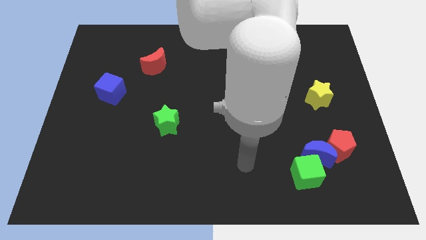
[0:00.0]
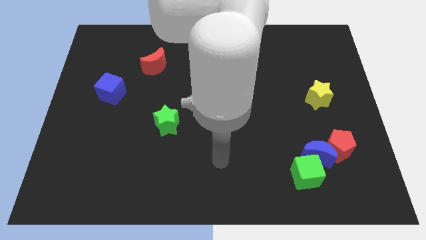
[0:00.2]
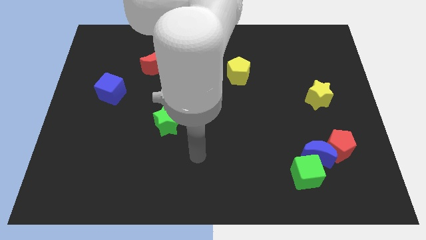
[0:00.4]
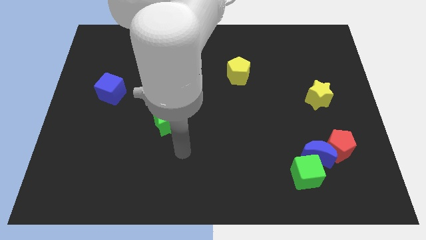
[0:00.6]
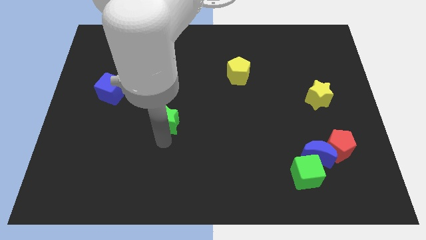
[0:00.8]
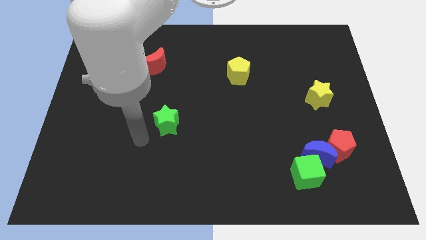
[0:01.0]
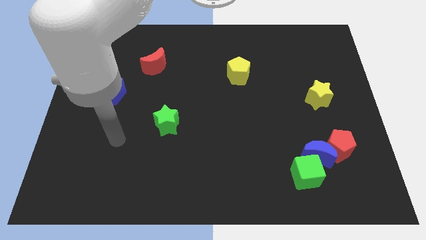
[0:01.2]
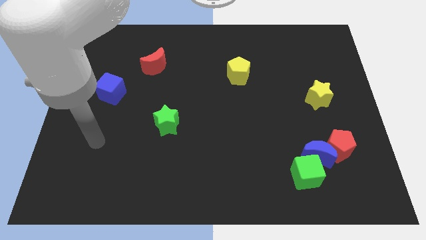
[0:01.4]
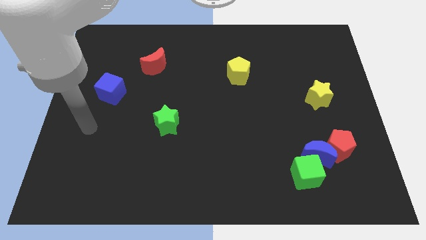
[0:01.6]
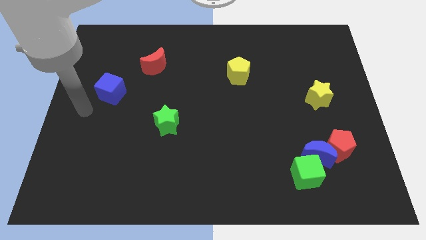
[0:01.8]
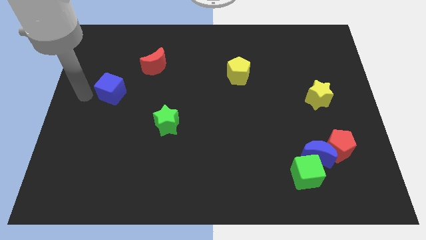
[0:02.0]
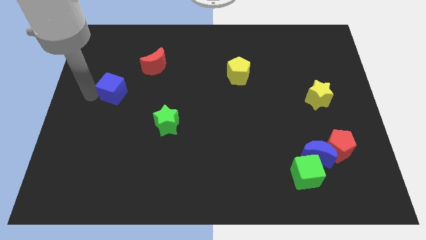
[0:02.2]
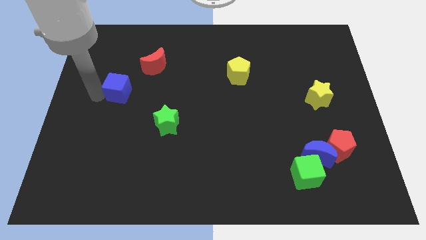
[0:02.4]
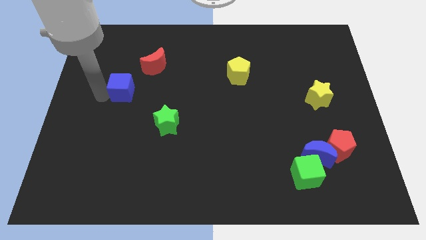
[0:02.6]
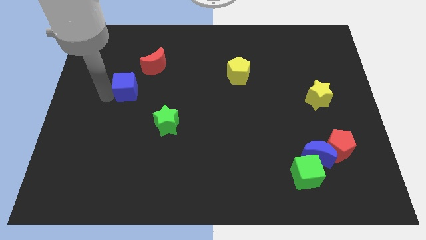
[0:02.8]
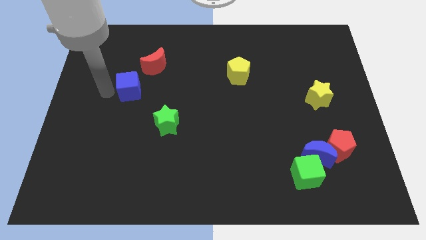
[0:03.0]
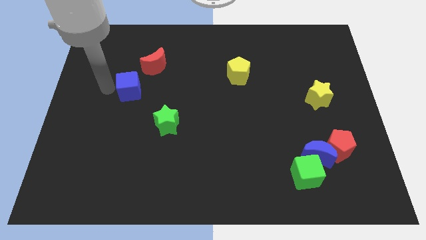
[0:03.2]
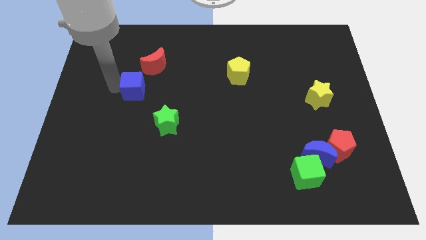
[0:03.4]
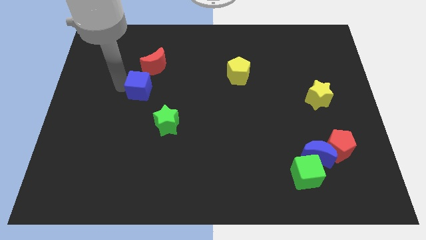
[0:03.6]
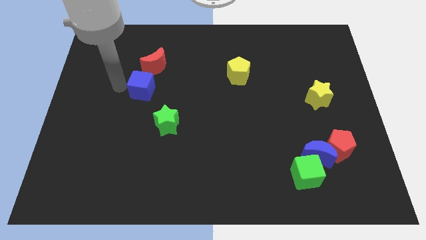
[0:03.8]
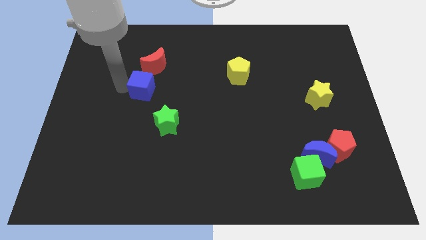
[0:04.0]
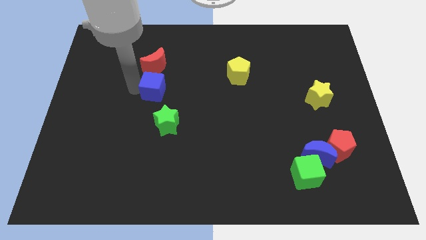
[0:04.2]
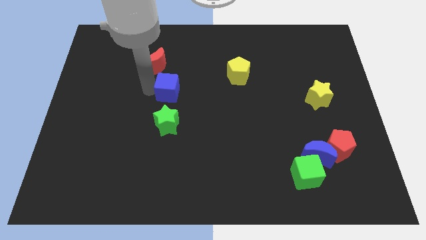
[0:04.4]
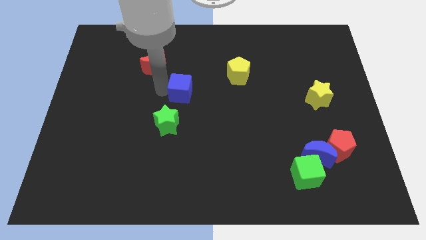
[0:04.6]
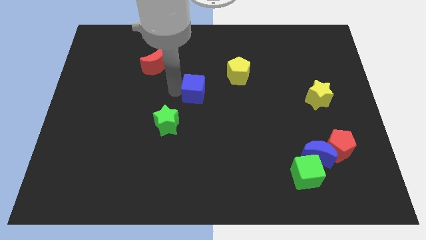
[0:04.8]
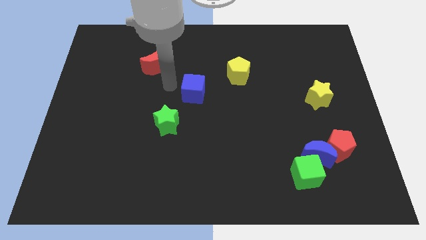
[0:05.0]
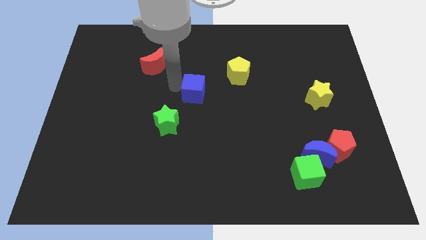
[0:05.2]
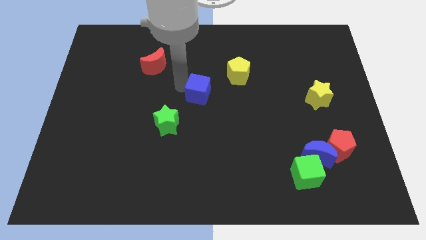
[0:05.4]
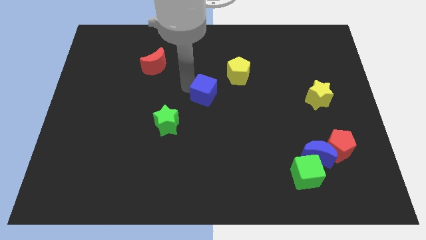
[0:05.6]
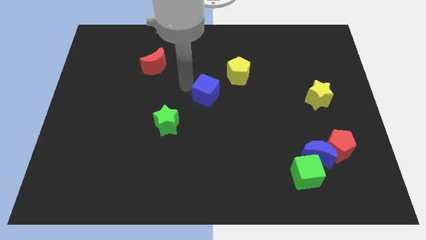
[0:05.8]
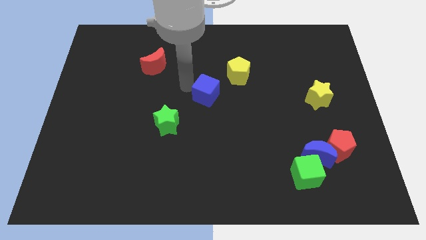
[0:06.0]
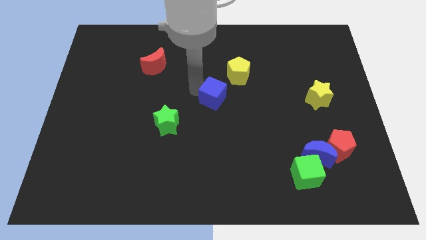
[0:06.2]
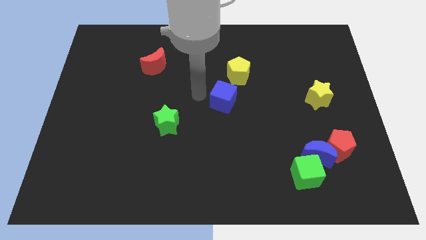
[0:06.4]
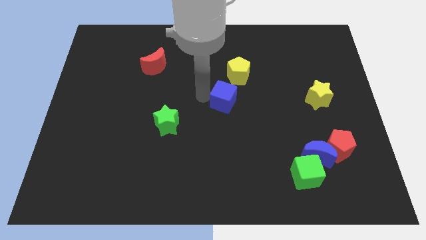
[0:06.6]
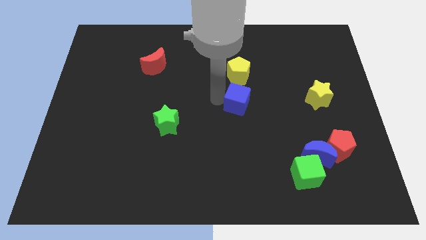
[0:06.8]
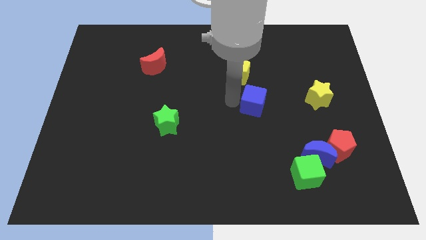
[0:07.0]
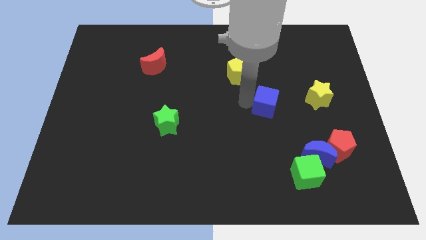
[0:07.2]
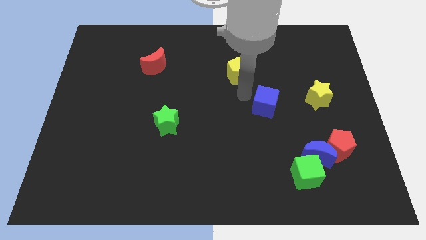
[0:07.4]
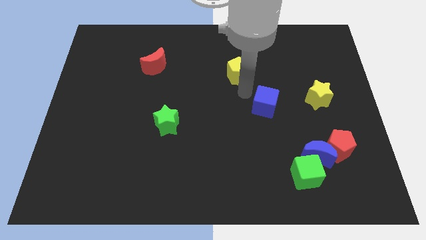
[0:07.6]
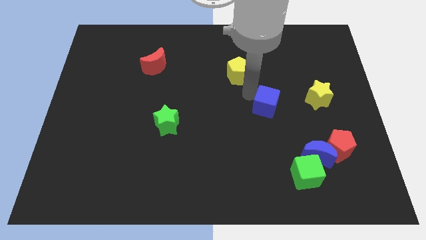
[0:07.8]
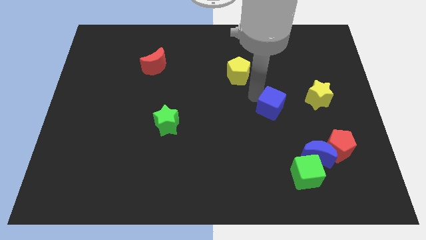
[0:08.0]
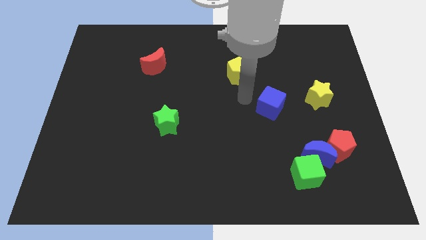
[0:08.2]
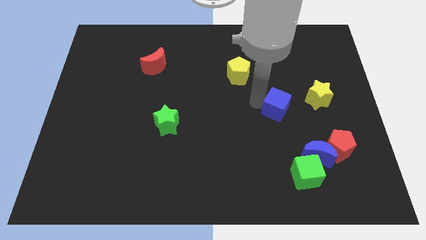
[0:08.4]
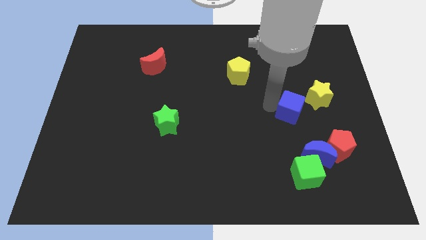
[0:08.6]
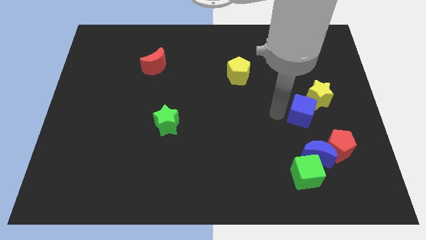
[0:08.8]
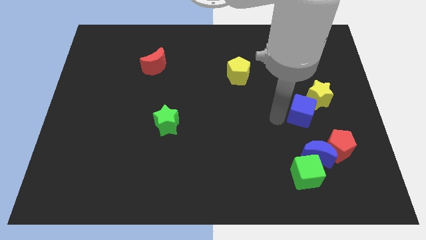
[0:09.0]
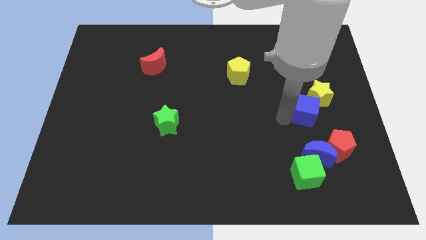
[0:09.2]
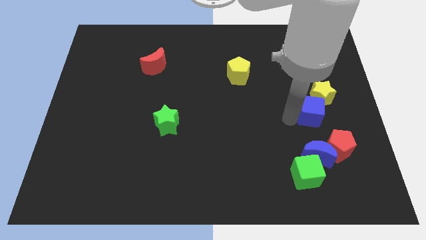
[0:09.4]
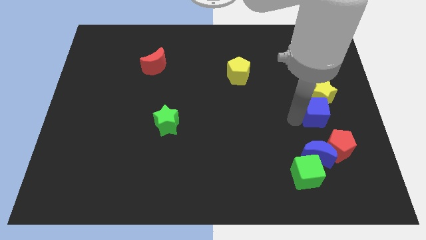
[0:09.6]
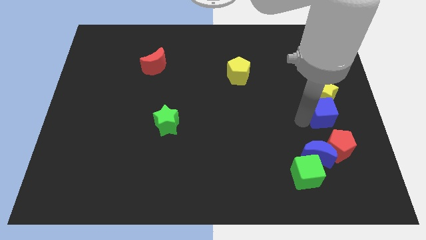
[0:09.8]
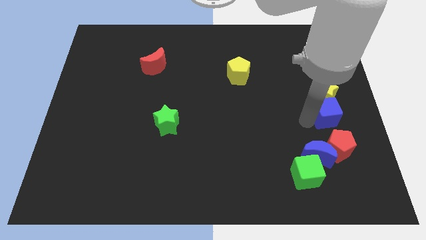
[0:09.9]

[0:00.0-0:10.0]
slide the blue cube to the right side of the board

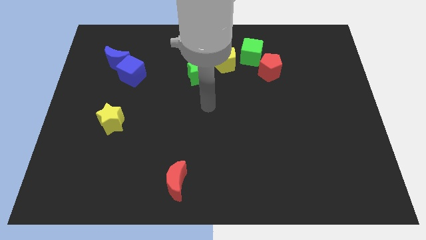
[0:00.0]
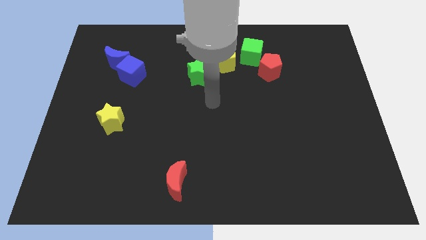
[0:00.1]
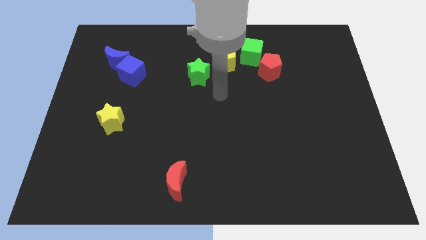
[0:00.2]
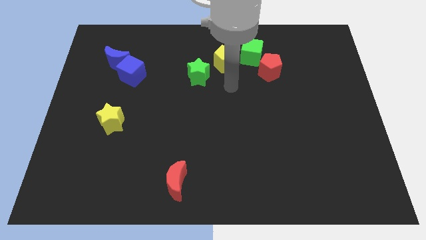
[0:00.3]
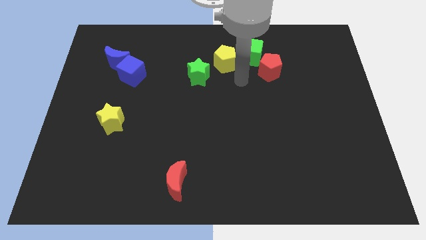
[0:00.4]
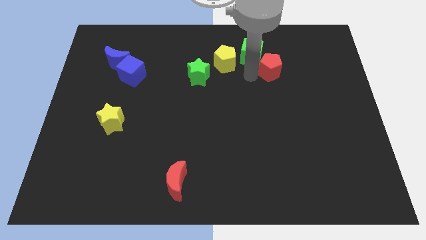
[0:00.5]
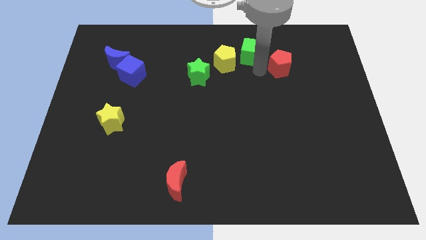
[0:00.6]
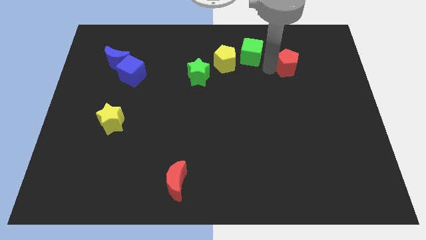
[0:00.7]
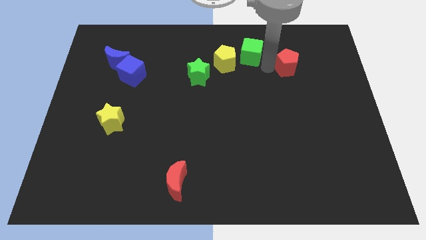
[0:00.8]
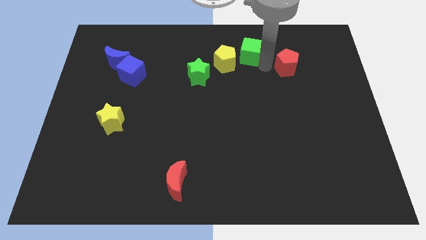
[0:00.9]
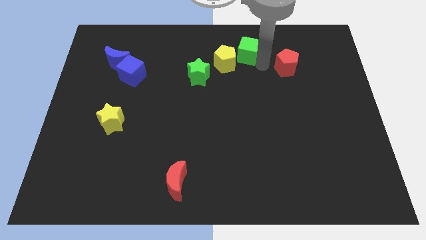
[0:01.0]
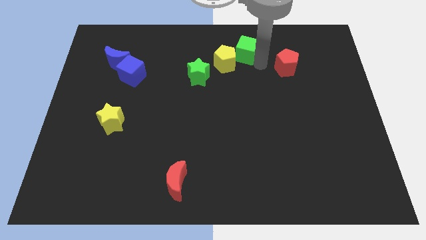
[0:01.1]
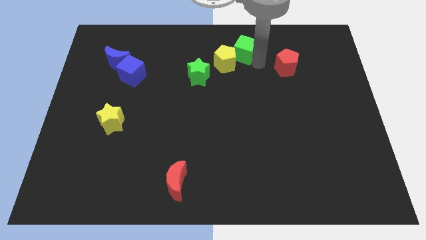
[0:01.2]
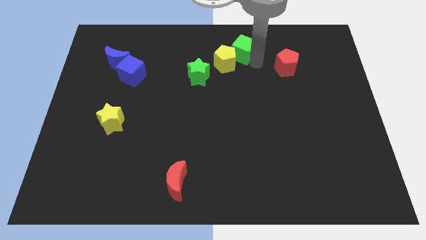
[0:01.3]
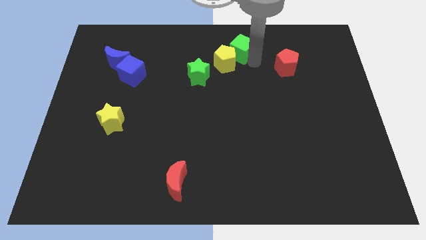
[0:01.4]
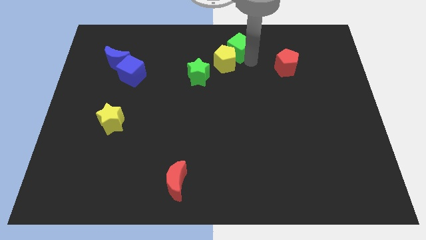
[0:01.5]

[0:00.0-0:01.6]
push the green cube to the top

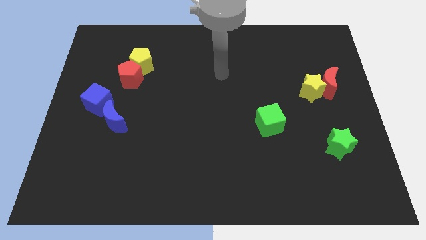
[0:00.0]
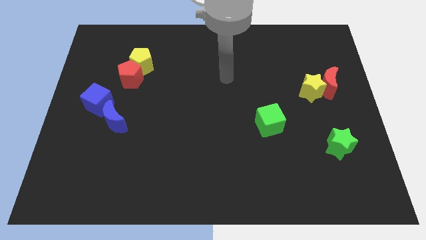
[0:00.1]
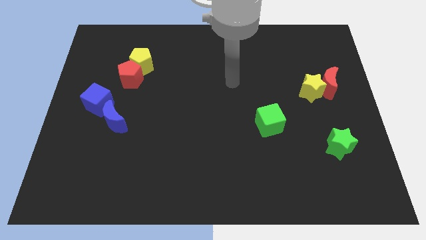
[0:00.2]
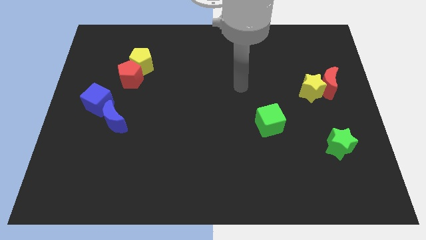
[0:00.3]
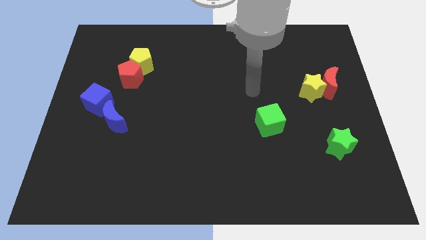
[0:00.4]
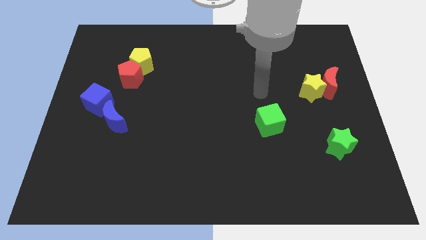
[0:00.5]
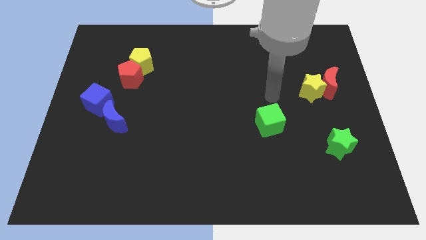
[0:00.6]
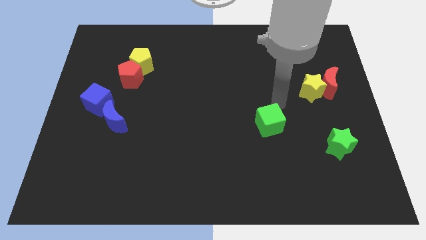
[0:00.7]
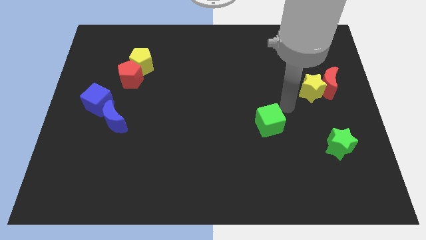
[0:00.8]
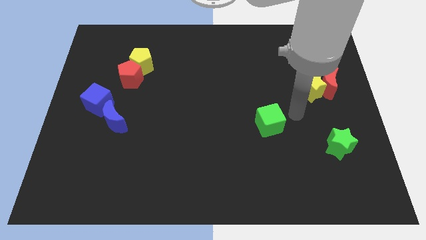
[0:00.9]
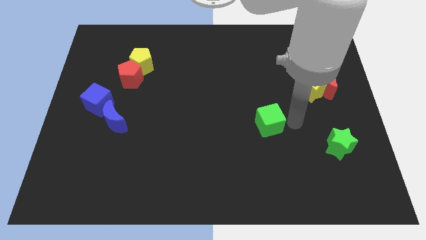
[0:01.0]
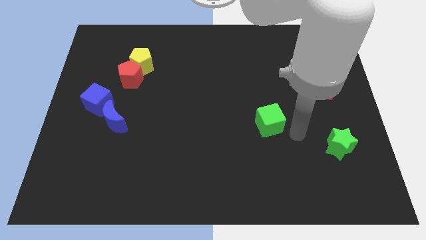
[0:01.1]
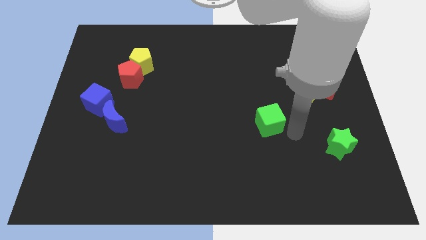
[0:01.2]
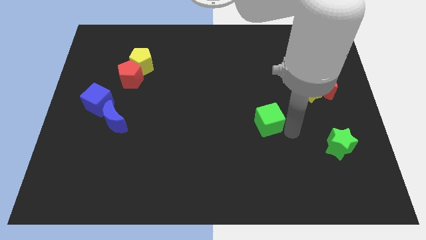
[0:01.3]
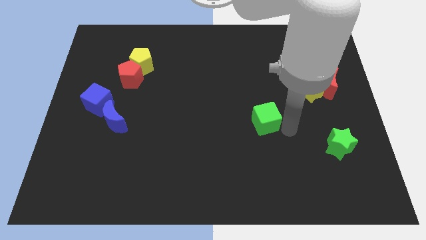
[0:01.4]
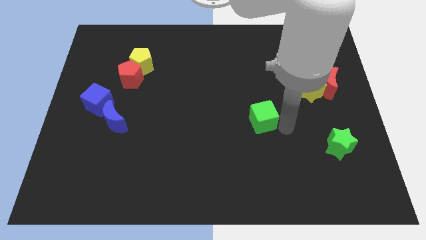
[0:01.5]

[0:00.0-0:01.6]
push the green cube to the center
